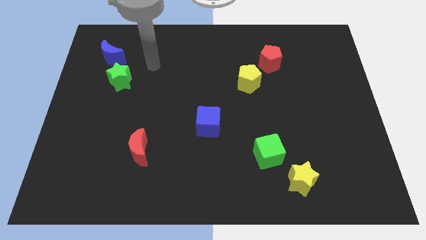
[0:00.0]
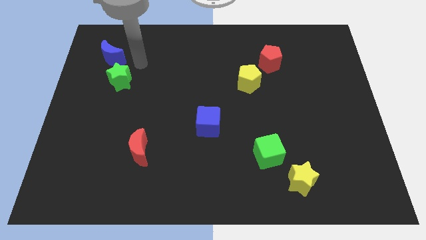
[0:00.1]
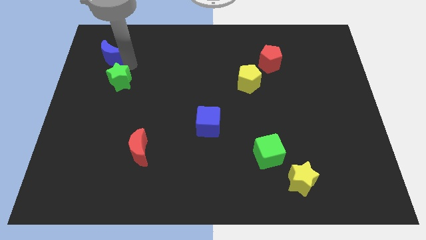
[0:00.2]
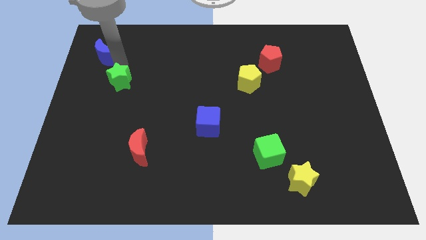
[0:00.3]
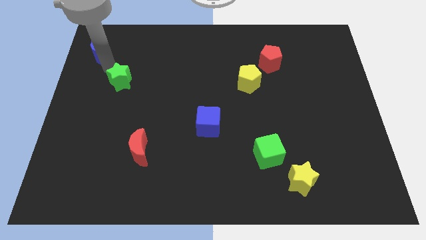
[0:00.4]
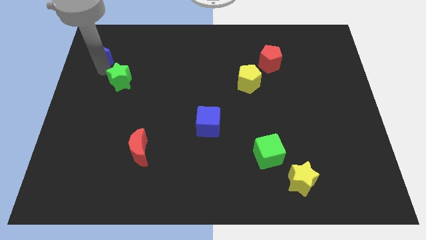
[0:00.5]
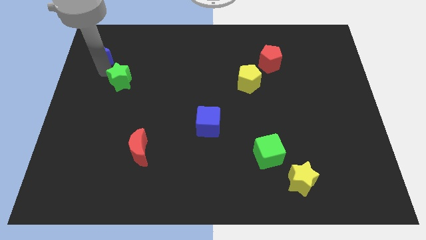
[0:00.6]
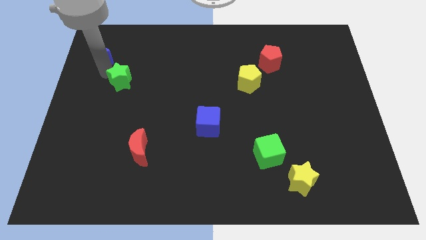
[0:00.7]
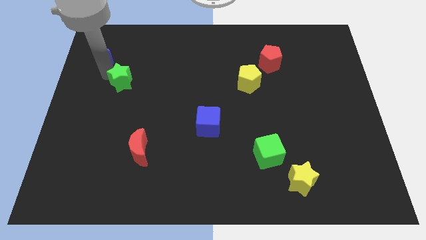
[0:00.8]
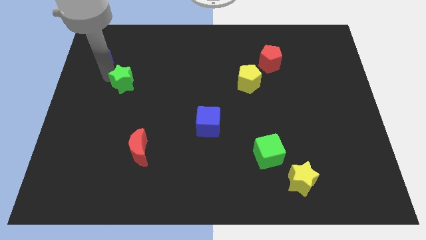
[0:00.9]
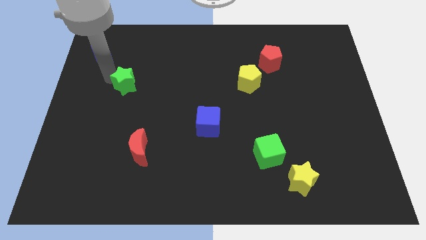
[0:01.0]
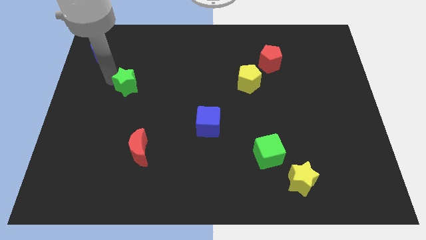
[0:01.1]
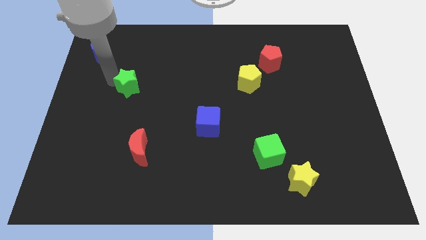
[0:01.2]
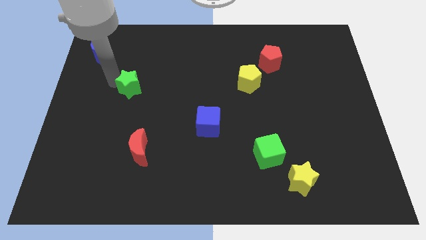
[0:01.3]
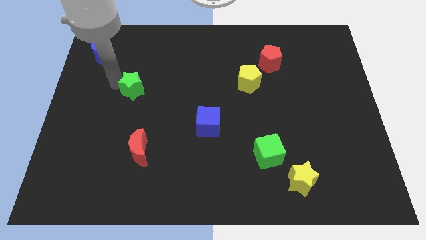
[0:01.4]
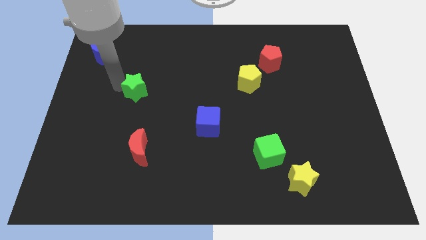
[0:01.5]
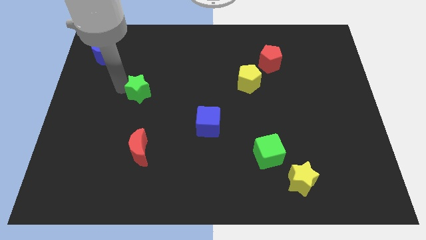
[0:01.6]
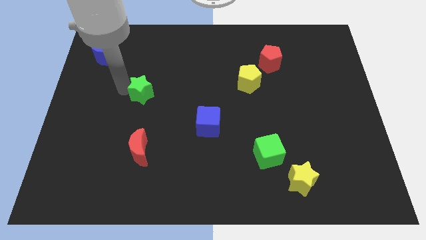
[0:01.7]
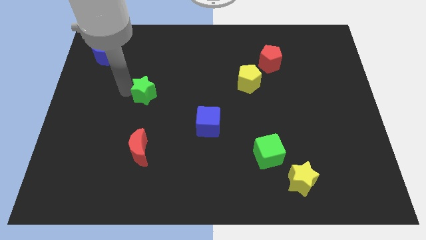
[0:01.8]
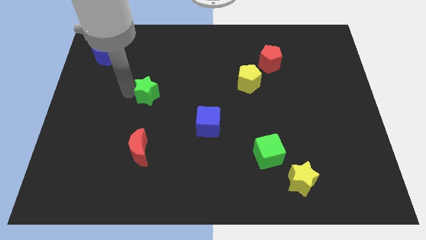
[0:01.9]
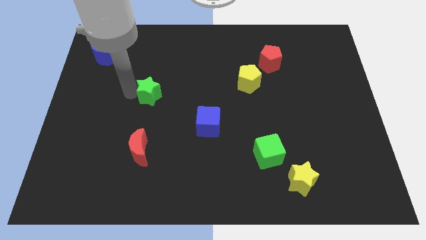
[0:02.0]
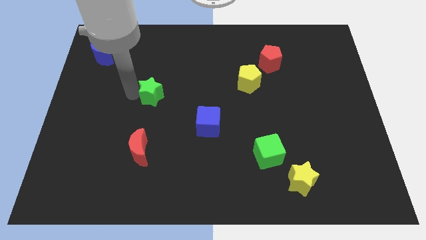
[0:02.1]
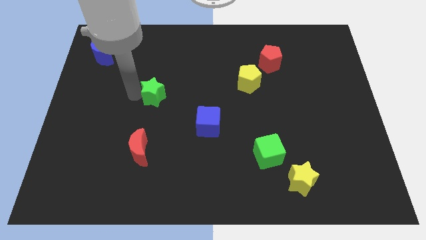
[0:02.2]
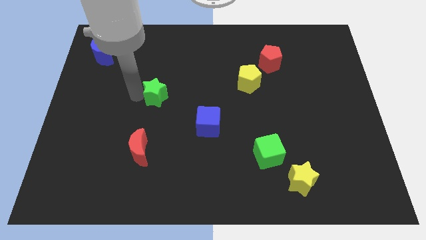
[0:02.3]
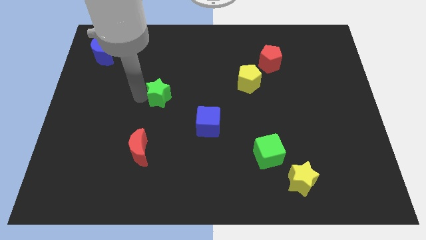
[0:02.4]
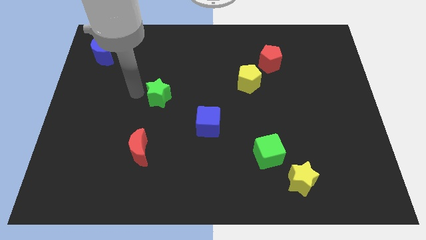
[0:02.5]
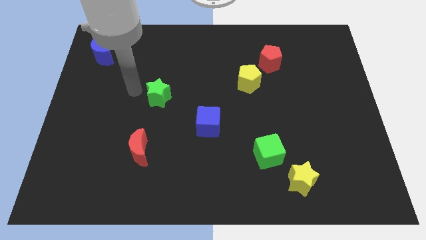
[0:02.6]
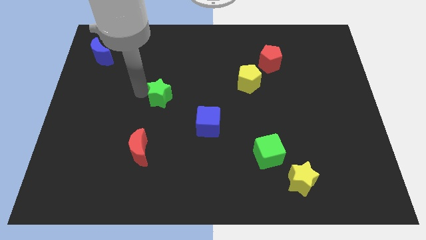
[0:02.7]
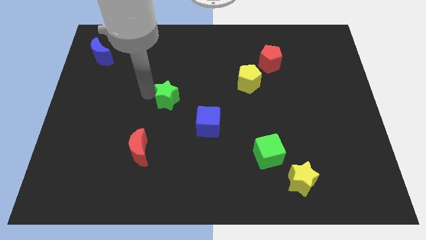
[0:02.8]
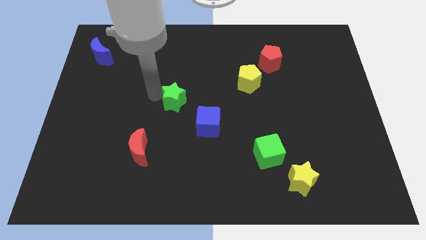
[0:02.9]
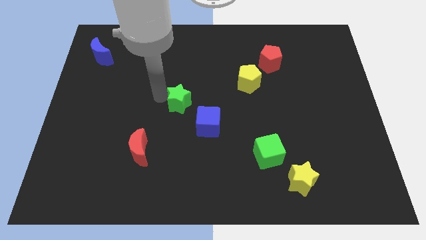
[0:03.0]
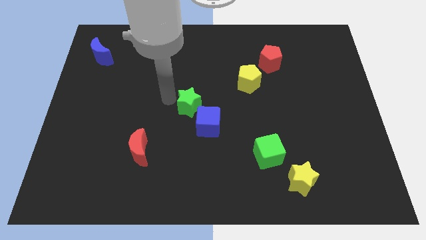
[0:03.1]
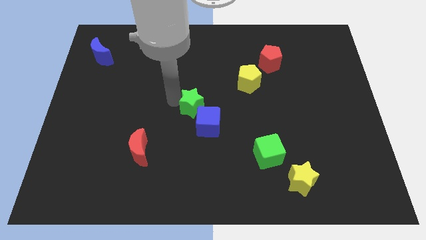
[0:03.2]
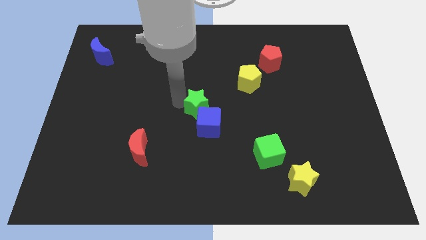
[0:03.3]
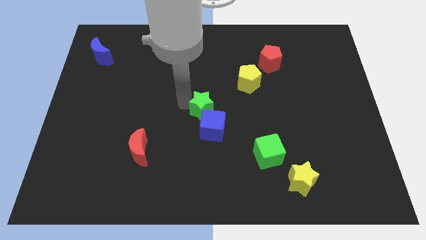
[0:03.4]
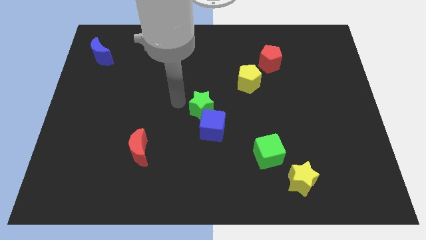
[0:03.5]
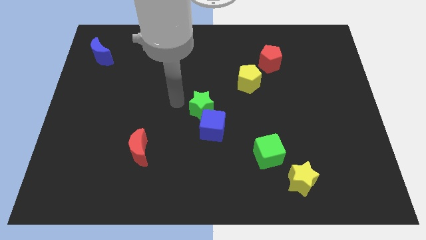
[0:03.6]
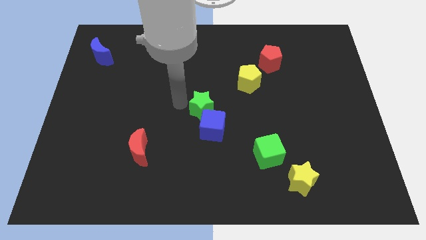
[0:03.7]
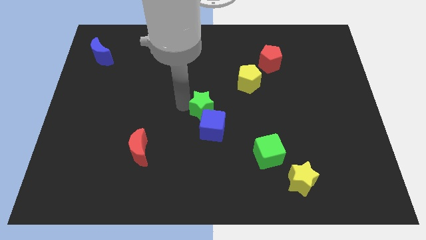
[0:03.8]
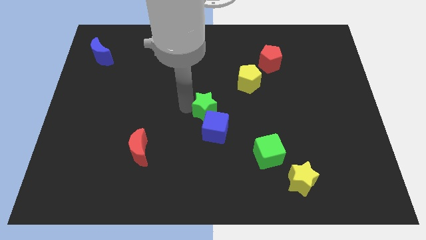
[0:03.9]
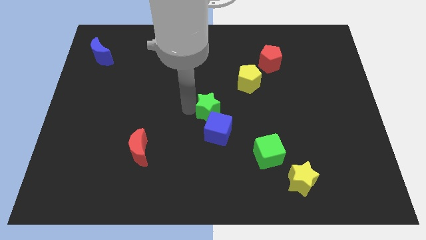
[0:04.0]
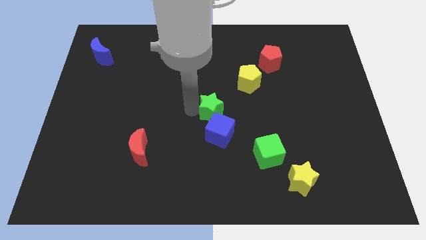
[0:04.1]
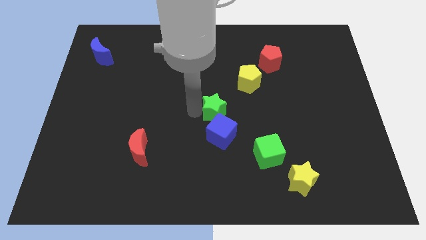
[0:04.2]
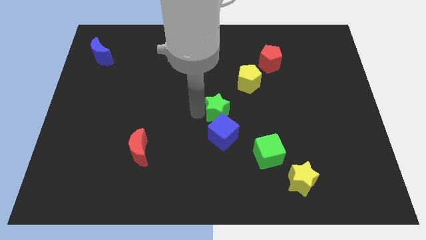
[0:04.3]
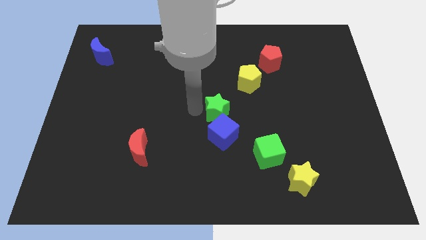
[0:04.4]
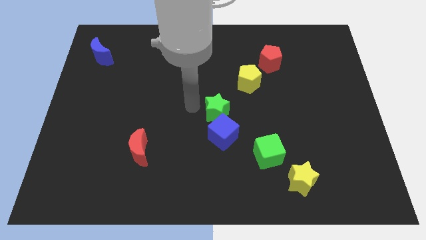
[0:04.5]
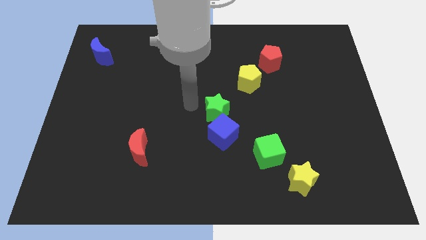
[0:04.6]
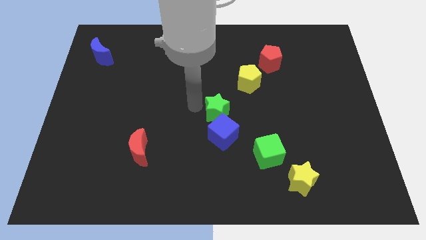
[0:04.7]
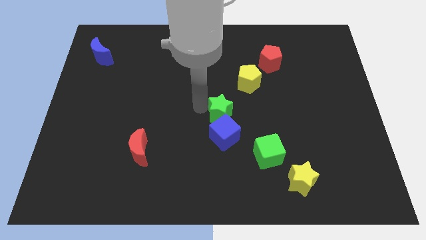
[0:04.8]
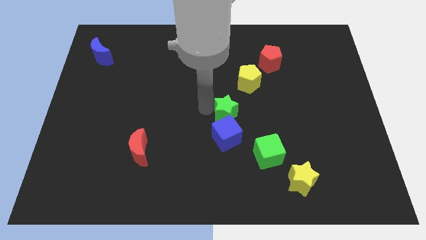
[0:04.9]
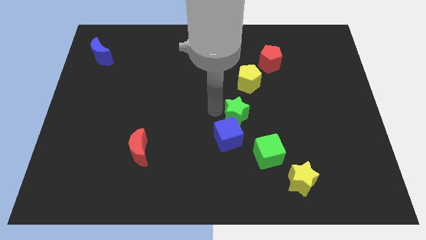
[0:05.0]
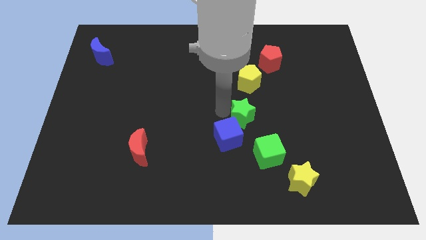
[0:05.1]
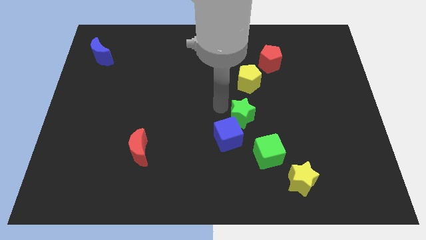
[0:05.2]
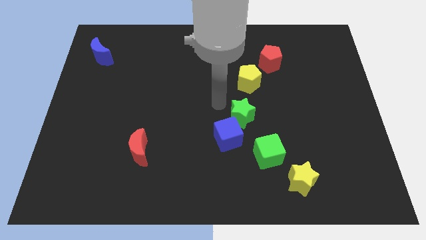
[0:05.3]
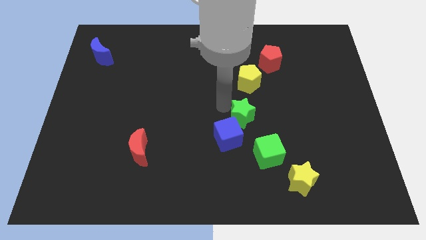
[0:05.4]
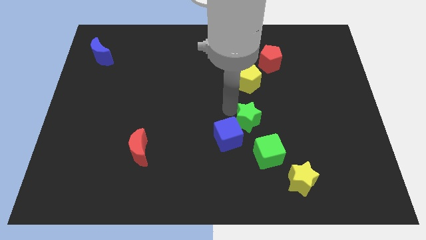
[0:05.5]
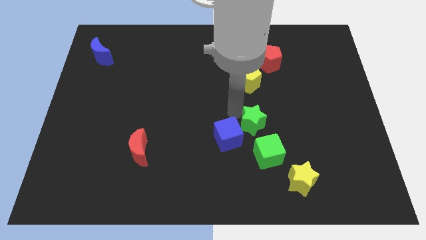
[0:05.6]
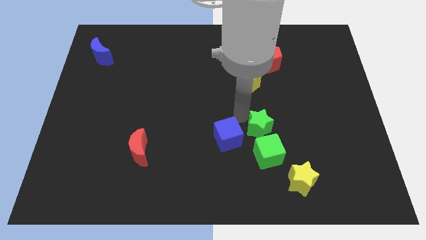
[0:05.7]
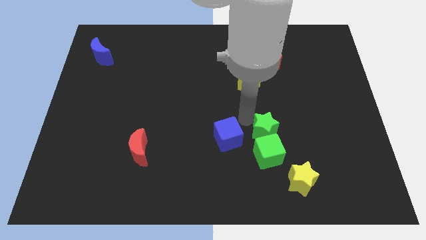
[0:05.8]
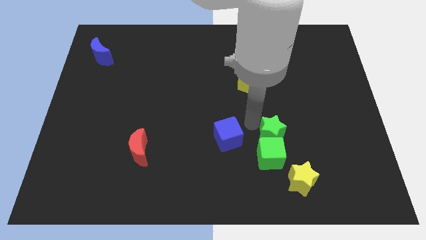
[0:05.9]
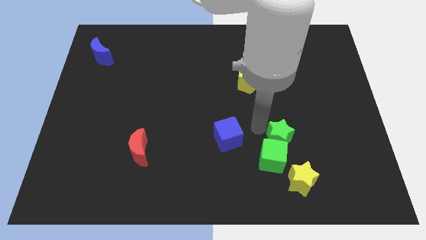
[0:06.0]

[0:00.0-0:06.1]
slide the green star to the top of the yellow star

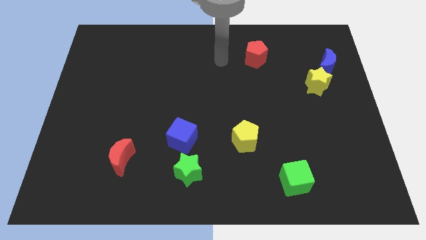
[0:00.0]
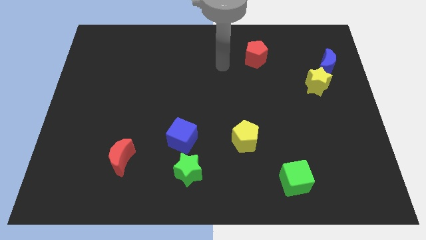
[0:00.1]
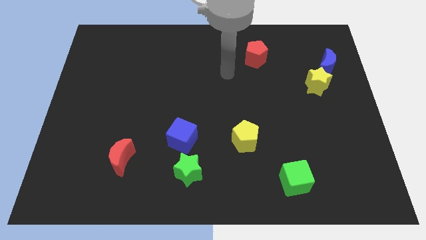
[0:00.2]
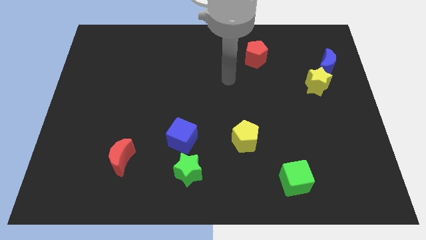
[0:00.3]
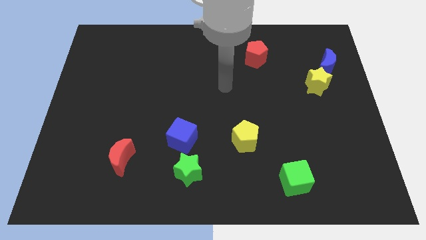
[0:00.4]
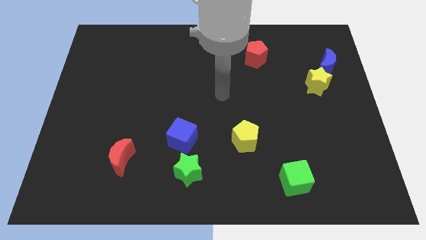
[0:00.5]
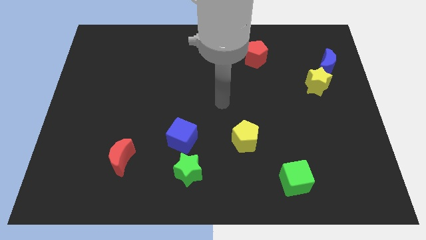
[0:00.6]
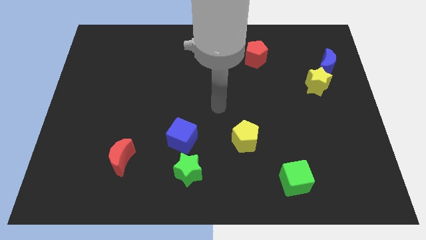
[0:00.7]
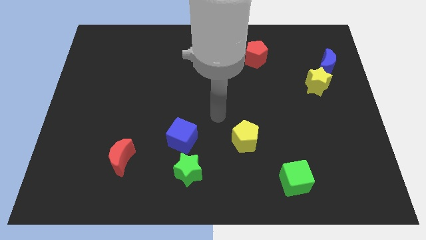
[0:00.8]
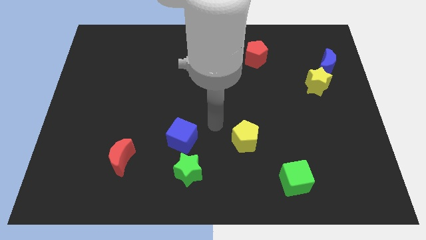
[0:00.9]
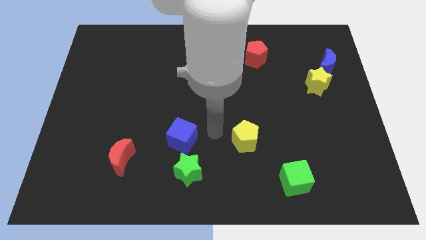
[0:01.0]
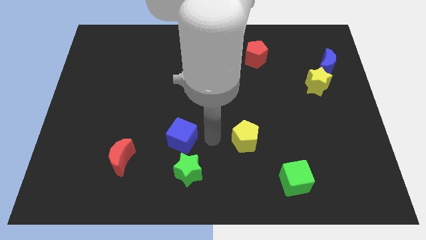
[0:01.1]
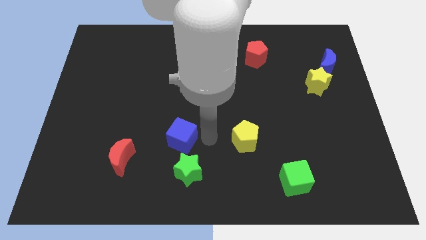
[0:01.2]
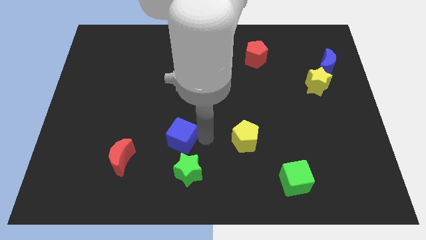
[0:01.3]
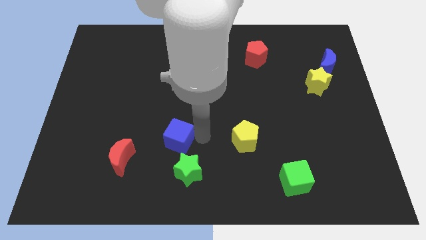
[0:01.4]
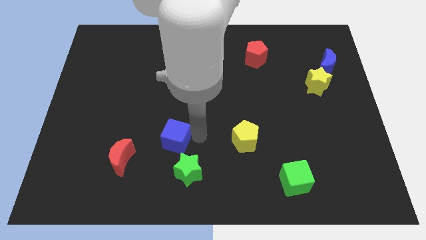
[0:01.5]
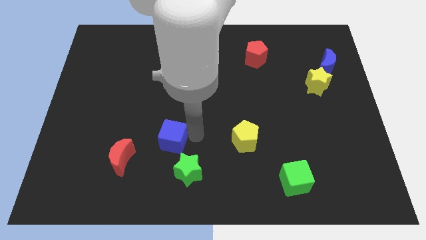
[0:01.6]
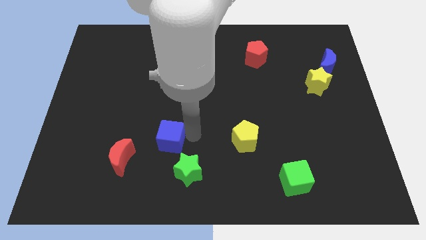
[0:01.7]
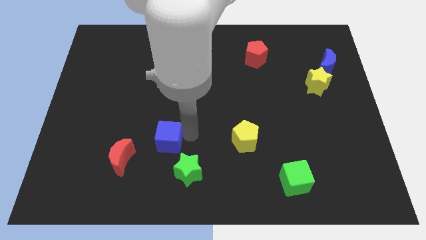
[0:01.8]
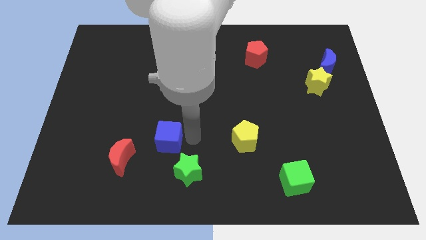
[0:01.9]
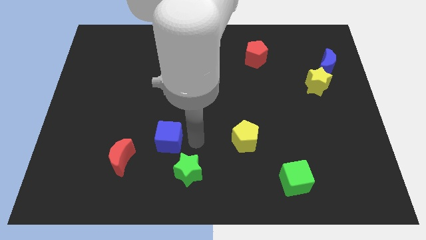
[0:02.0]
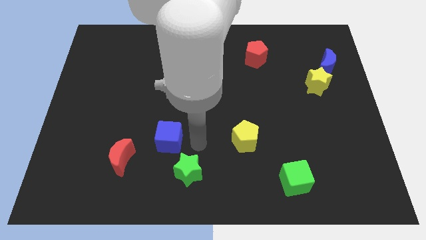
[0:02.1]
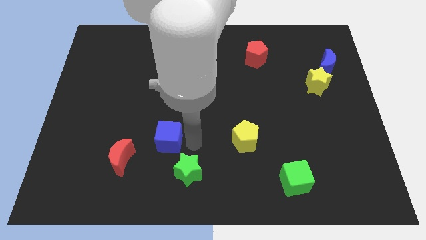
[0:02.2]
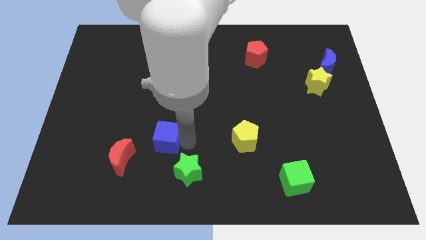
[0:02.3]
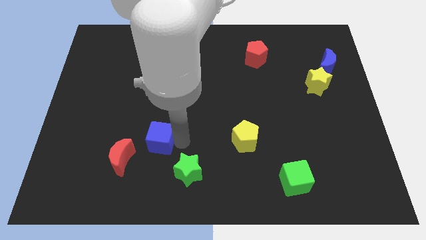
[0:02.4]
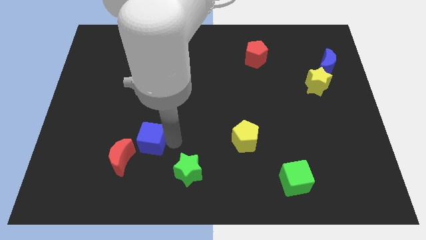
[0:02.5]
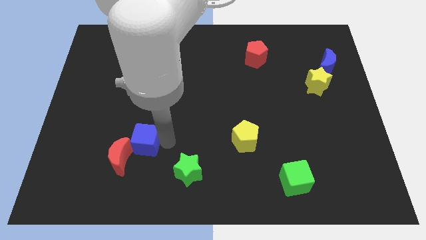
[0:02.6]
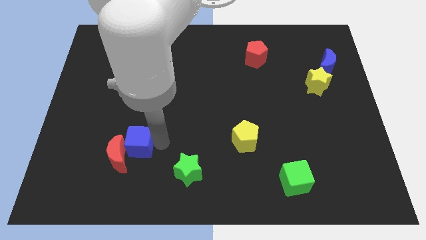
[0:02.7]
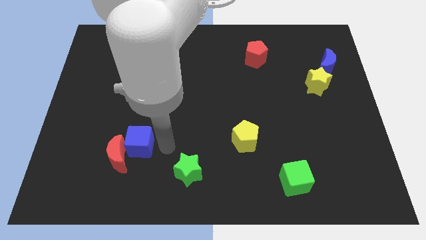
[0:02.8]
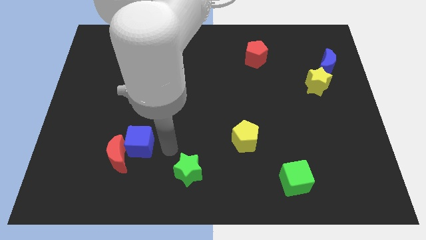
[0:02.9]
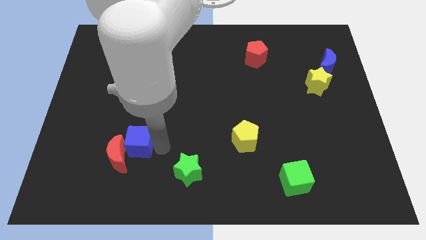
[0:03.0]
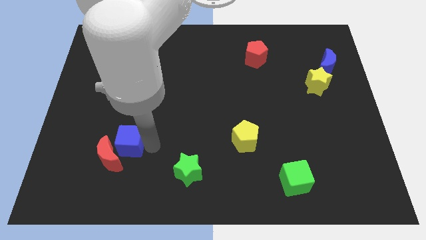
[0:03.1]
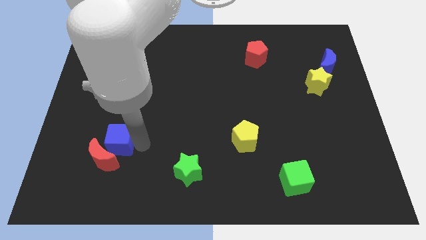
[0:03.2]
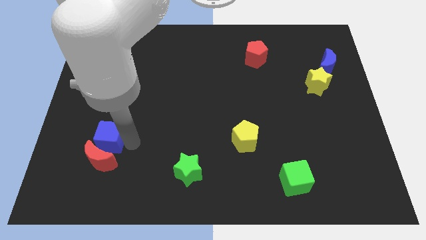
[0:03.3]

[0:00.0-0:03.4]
move the blue cube diagonally up and to the left of the red moon
